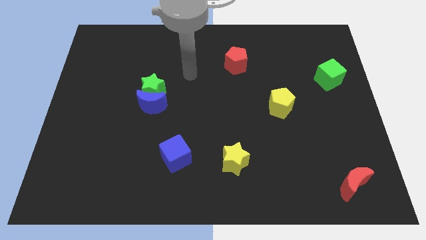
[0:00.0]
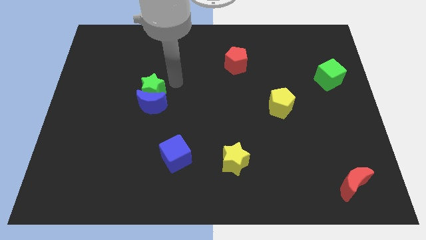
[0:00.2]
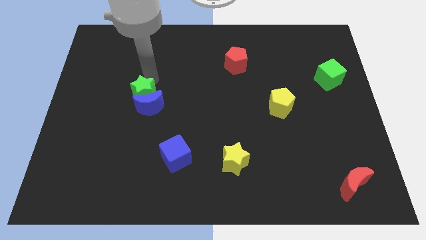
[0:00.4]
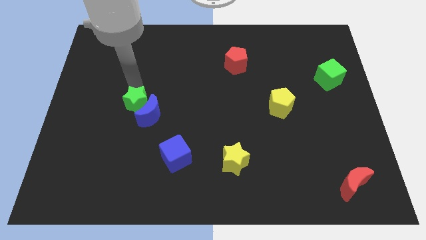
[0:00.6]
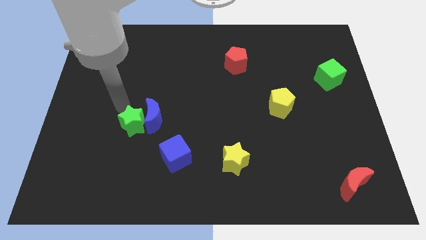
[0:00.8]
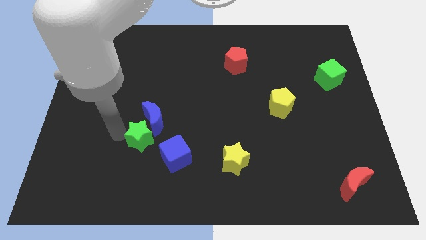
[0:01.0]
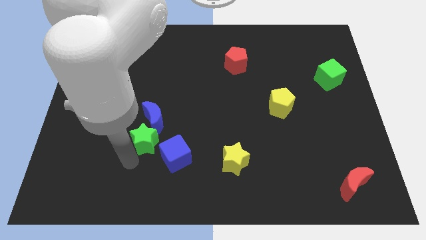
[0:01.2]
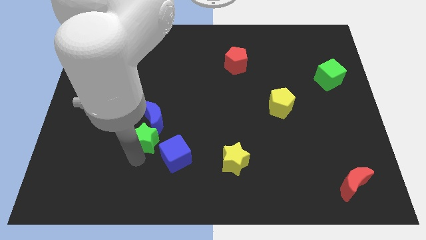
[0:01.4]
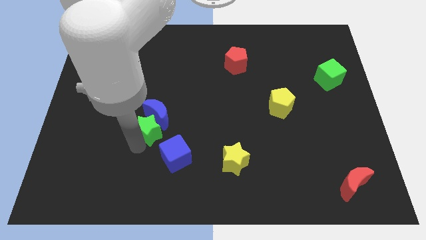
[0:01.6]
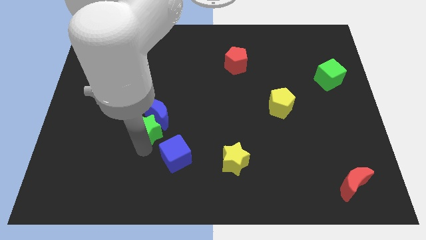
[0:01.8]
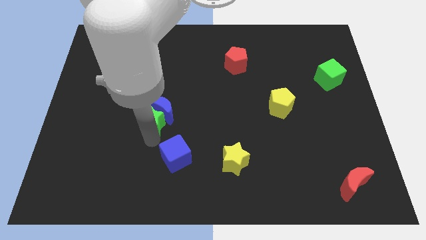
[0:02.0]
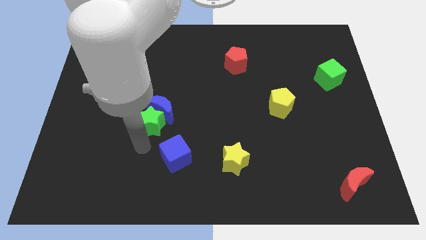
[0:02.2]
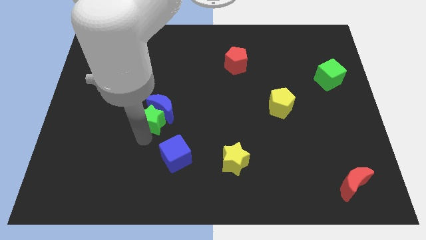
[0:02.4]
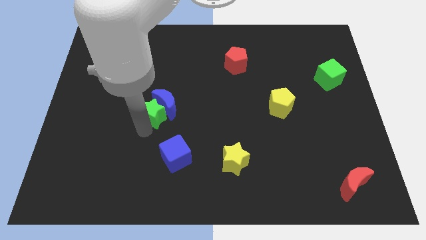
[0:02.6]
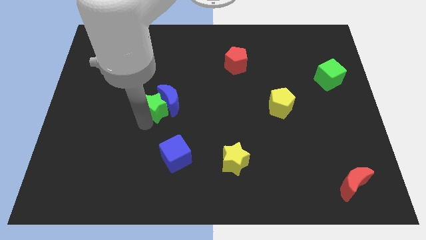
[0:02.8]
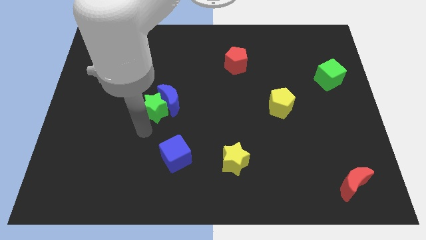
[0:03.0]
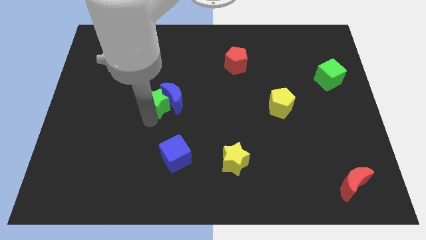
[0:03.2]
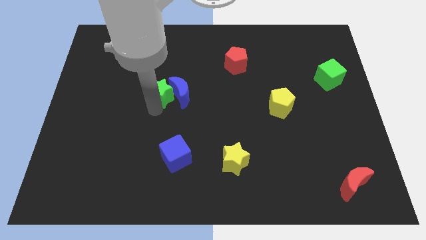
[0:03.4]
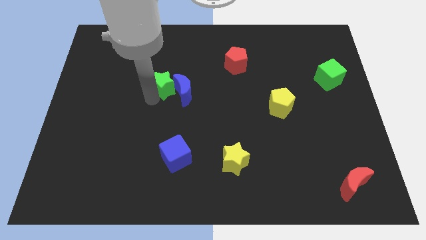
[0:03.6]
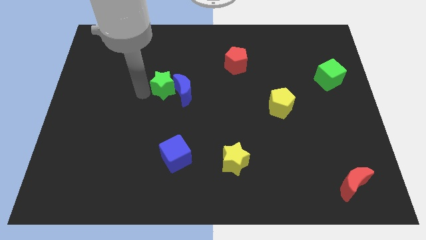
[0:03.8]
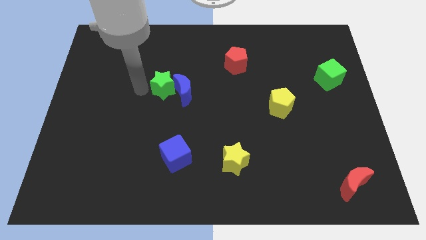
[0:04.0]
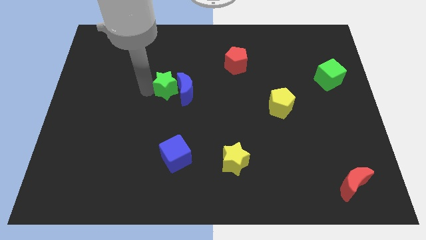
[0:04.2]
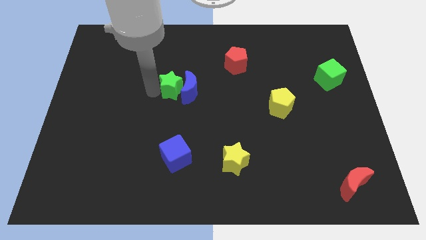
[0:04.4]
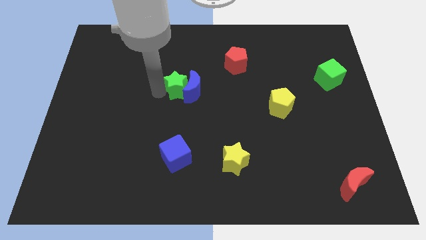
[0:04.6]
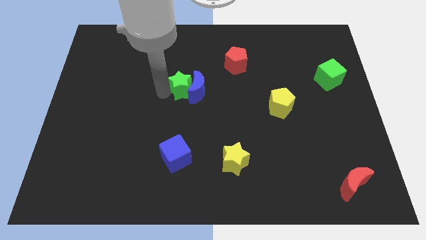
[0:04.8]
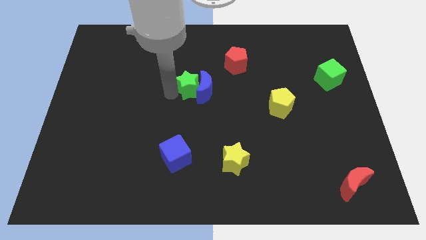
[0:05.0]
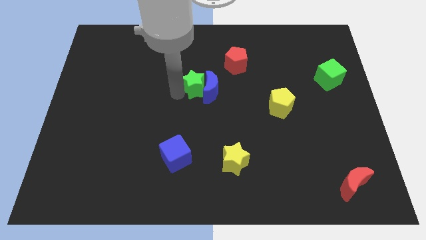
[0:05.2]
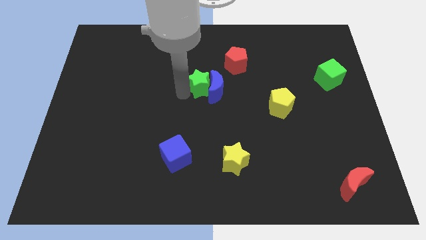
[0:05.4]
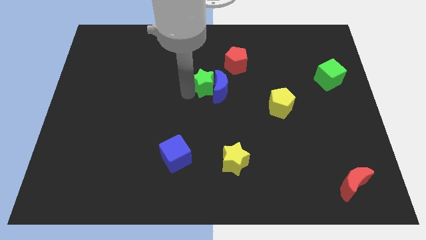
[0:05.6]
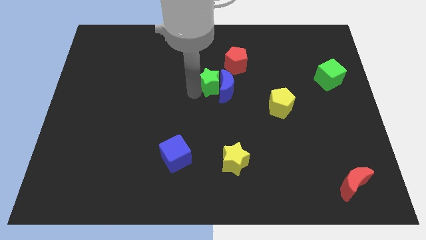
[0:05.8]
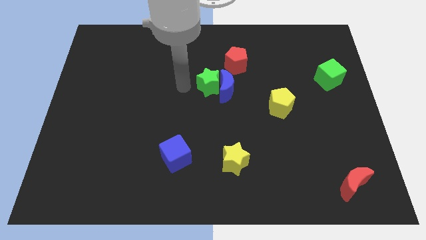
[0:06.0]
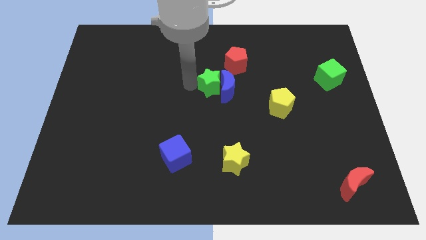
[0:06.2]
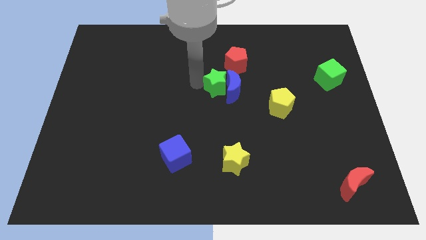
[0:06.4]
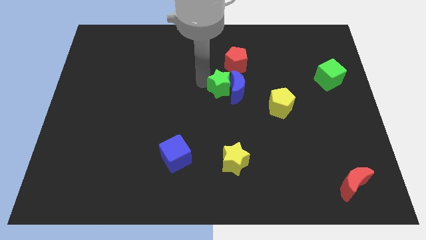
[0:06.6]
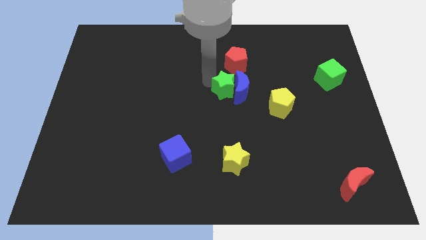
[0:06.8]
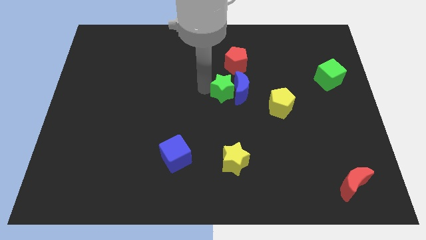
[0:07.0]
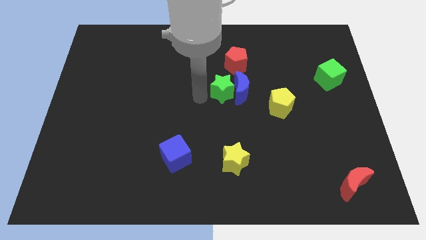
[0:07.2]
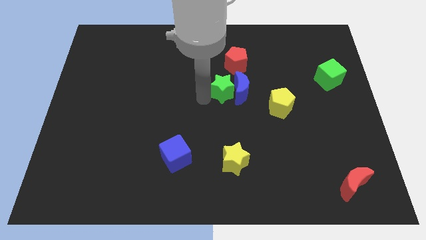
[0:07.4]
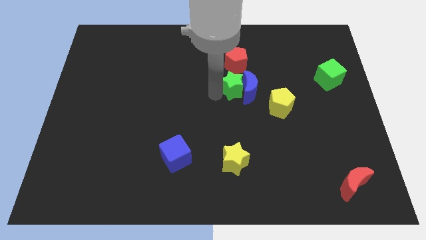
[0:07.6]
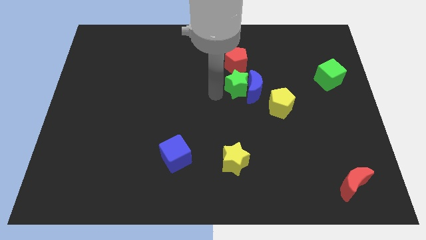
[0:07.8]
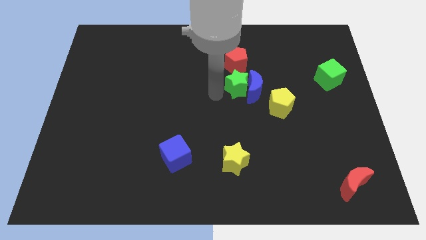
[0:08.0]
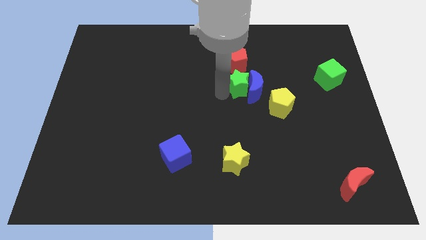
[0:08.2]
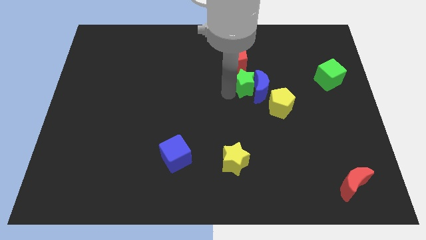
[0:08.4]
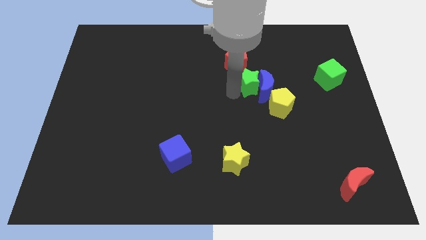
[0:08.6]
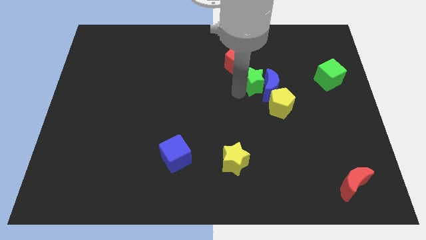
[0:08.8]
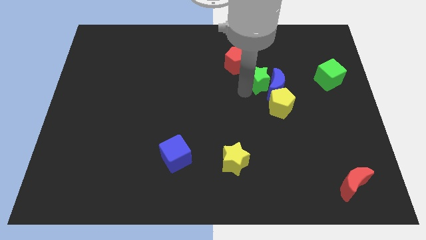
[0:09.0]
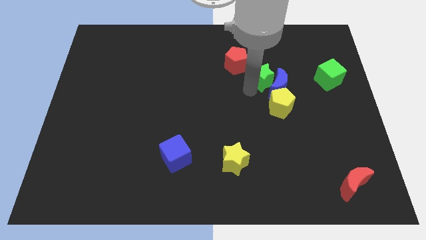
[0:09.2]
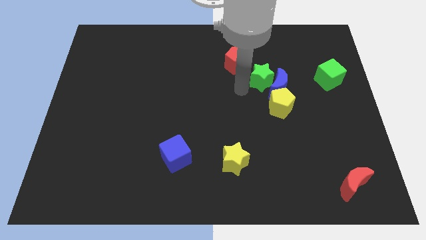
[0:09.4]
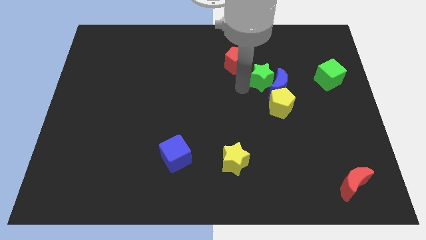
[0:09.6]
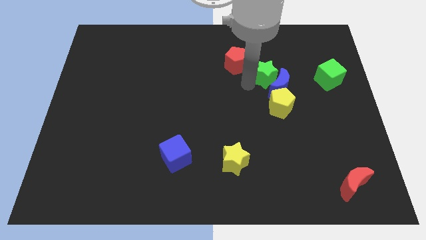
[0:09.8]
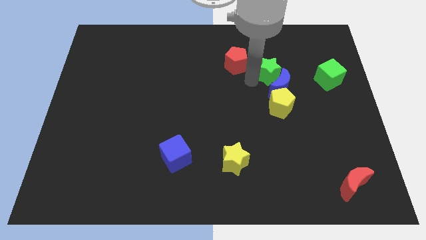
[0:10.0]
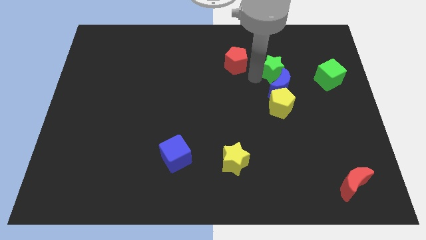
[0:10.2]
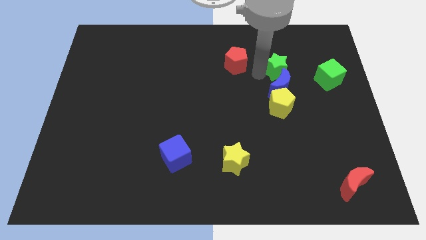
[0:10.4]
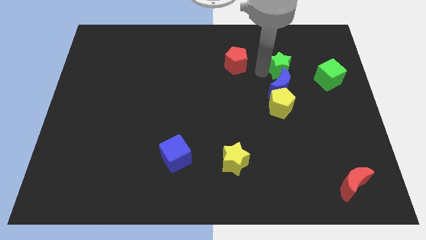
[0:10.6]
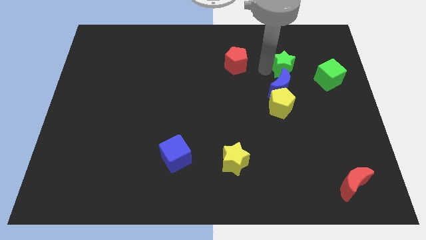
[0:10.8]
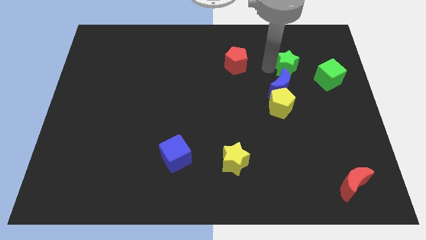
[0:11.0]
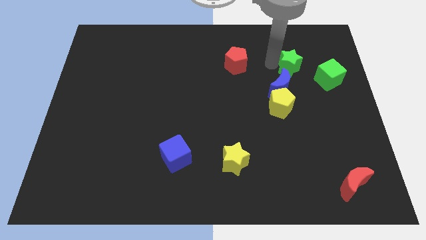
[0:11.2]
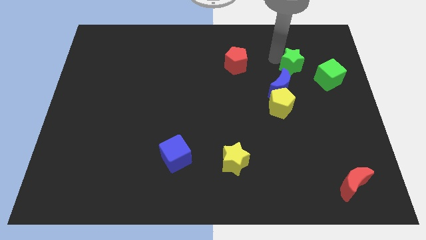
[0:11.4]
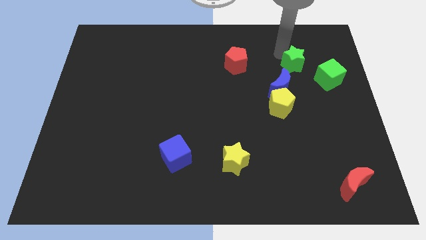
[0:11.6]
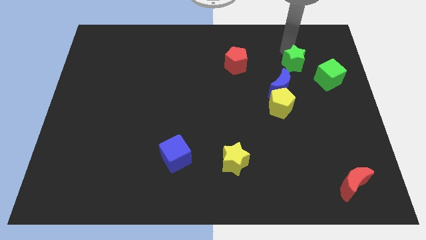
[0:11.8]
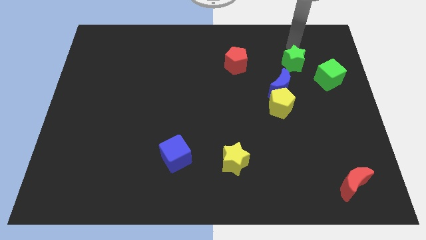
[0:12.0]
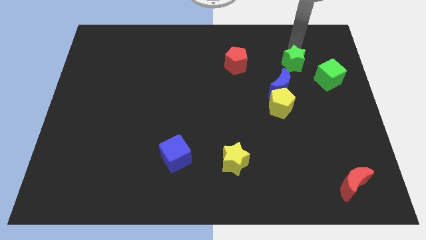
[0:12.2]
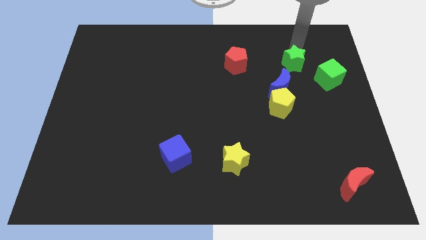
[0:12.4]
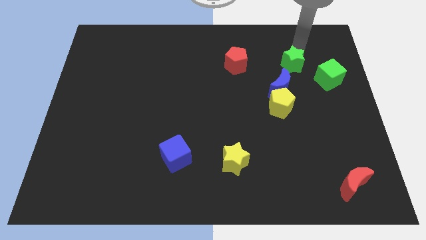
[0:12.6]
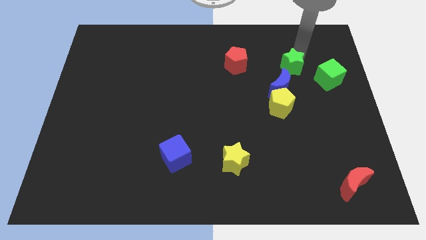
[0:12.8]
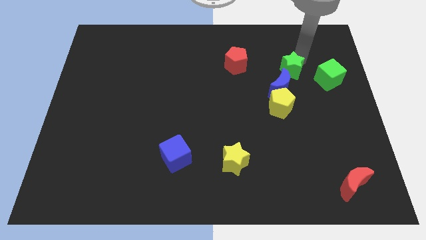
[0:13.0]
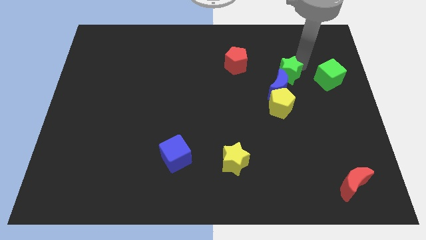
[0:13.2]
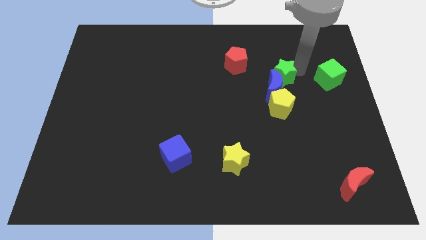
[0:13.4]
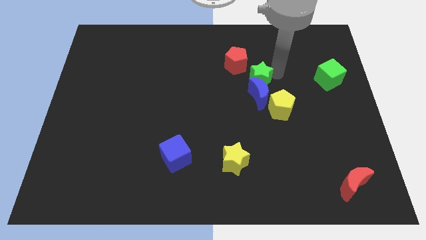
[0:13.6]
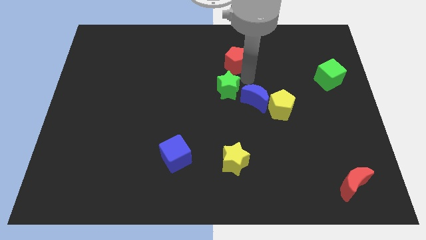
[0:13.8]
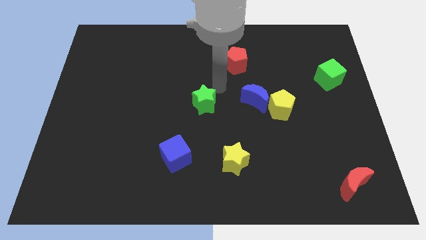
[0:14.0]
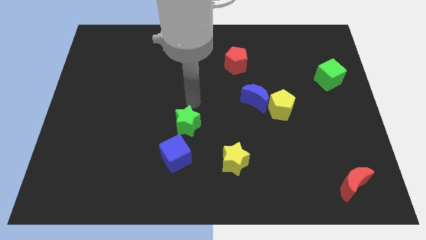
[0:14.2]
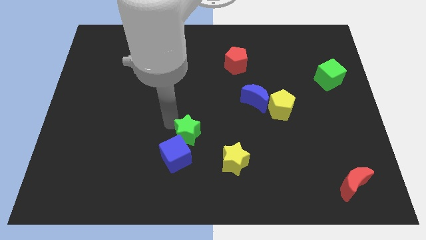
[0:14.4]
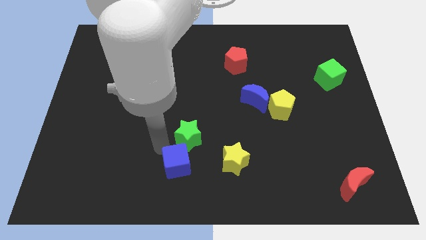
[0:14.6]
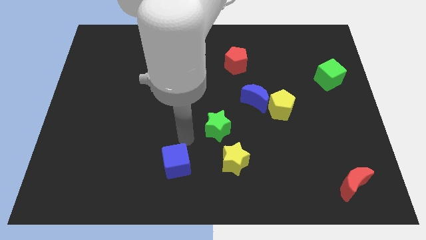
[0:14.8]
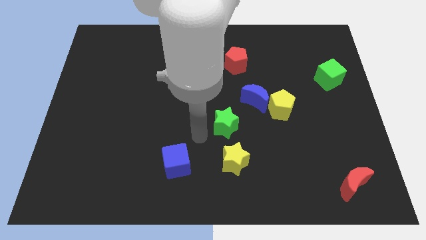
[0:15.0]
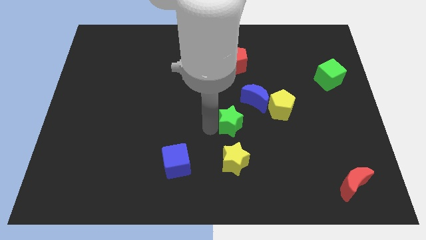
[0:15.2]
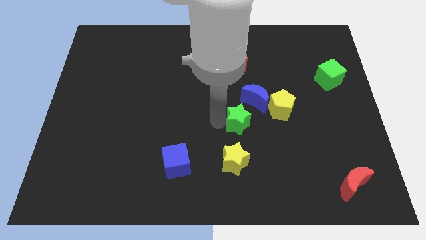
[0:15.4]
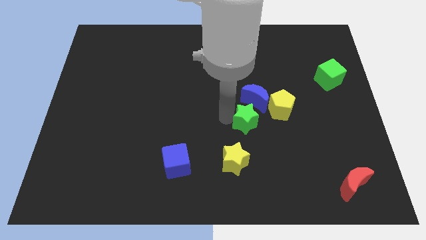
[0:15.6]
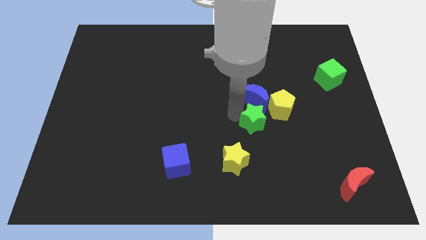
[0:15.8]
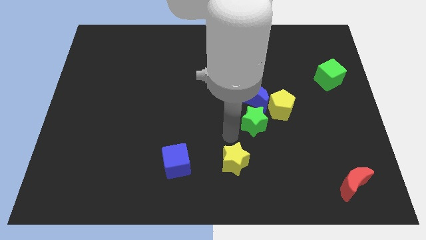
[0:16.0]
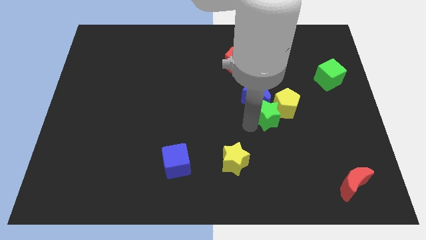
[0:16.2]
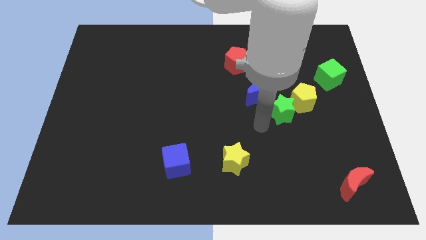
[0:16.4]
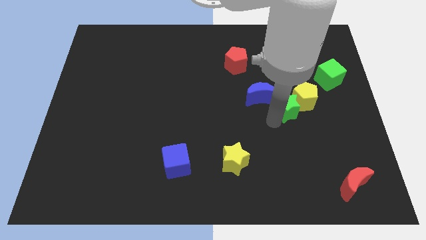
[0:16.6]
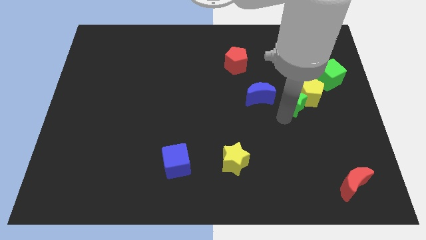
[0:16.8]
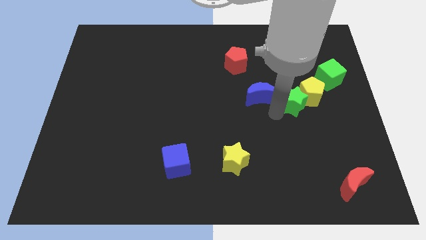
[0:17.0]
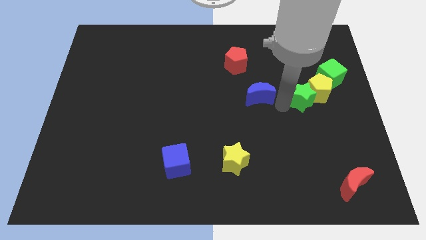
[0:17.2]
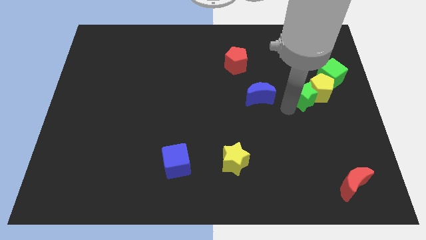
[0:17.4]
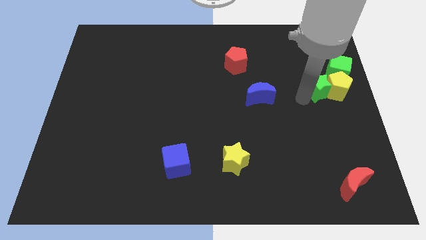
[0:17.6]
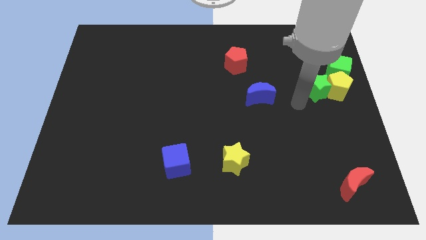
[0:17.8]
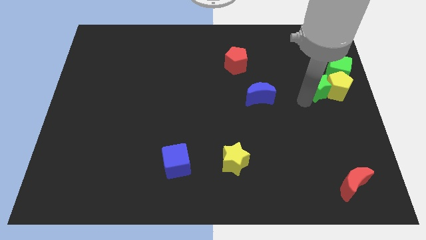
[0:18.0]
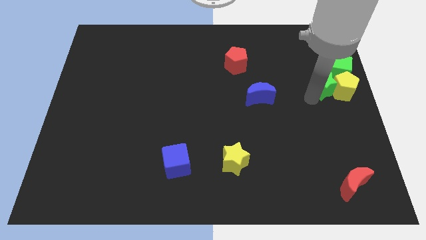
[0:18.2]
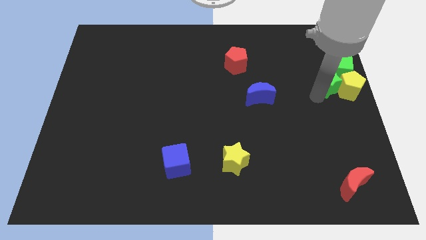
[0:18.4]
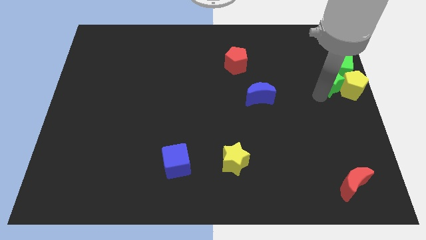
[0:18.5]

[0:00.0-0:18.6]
move the green star next to the green cube
